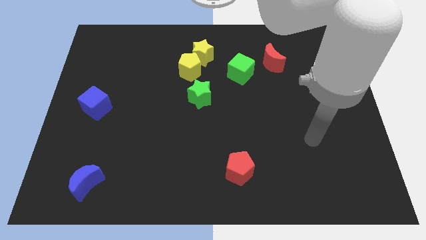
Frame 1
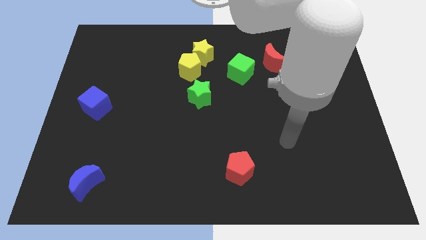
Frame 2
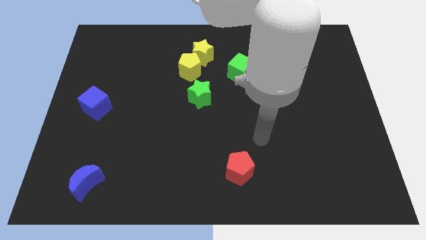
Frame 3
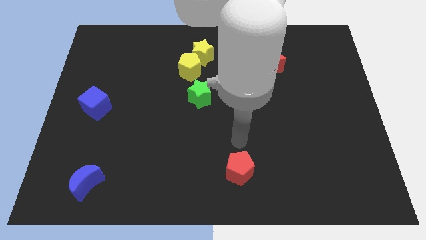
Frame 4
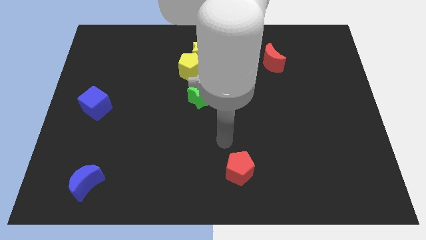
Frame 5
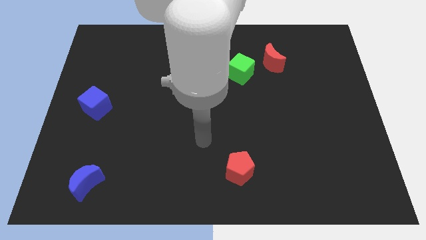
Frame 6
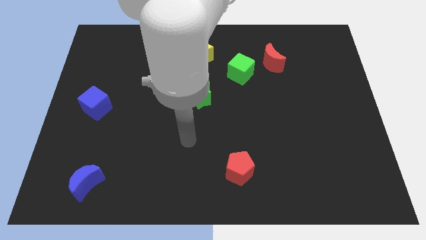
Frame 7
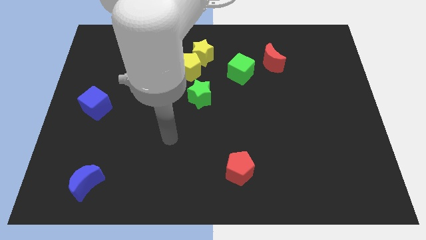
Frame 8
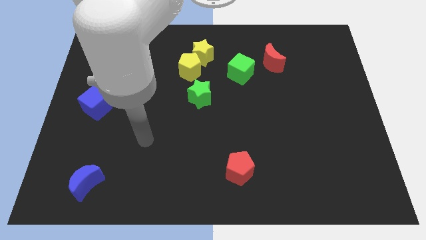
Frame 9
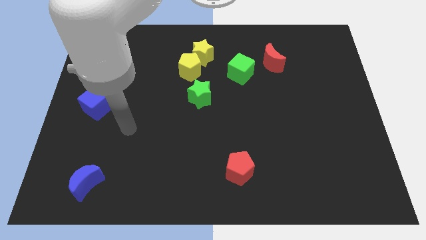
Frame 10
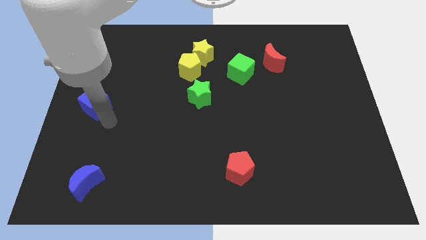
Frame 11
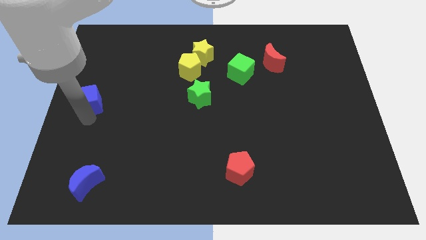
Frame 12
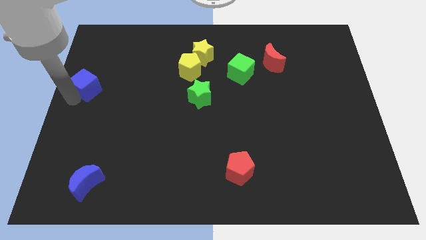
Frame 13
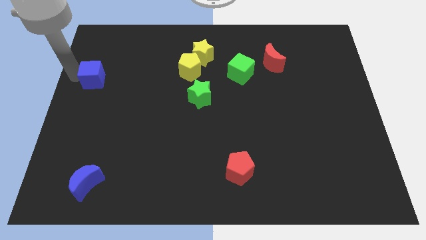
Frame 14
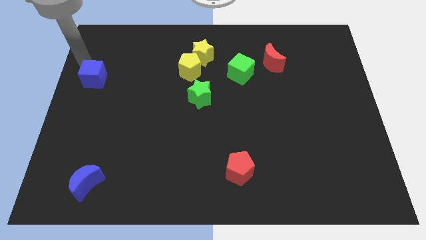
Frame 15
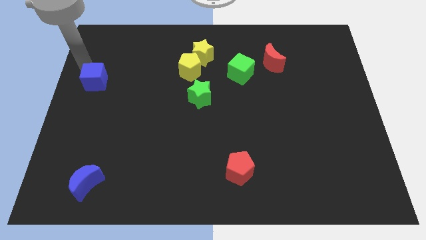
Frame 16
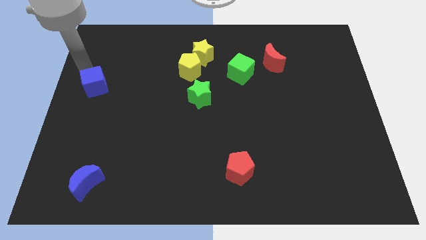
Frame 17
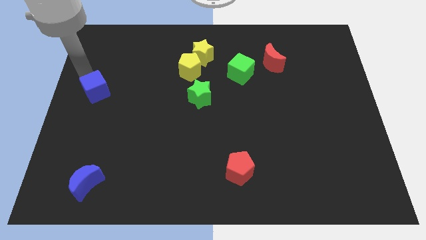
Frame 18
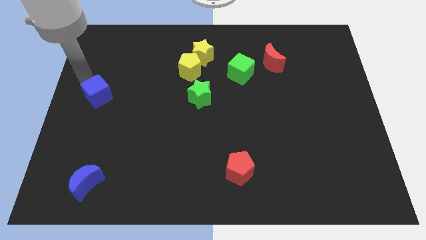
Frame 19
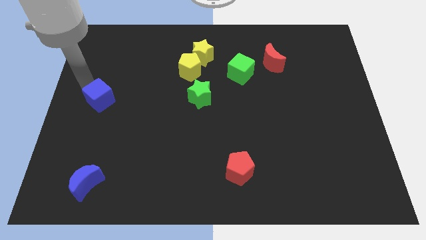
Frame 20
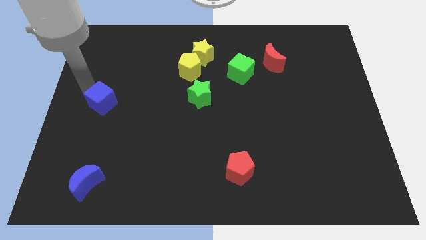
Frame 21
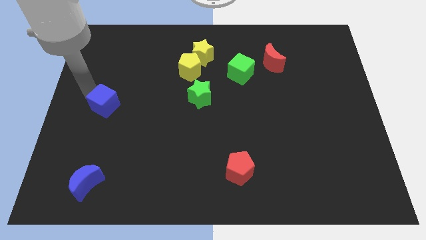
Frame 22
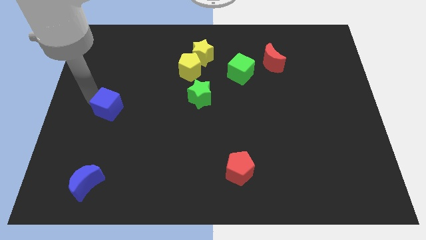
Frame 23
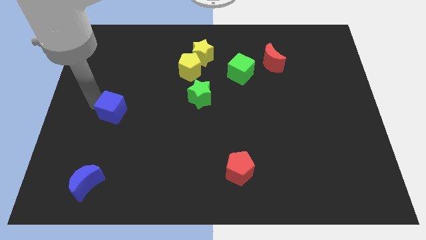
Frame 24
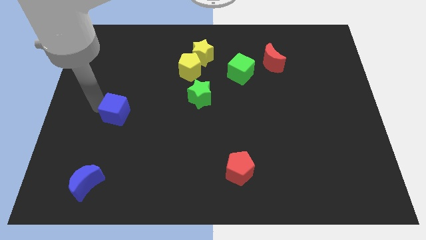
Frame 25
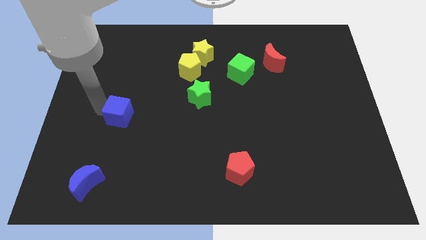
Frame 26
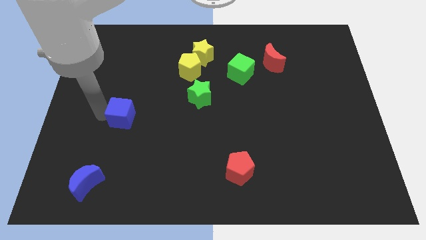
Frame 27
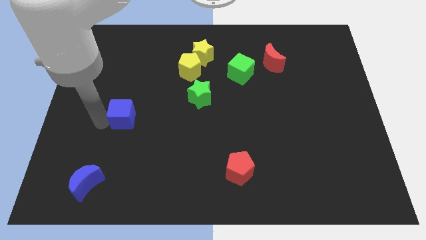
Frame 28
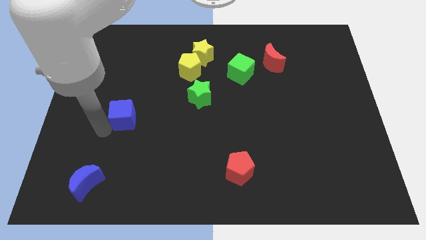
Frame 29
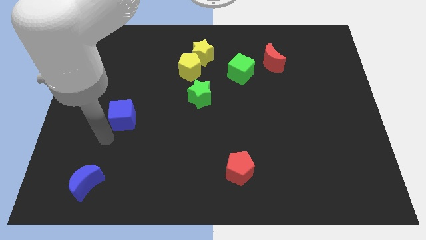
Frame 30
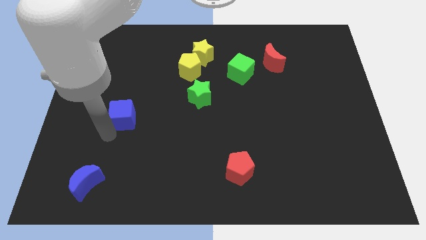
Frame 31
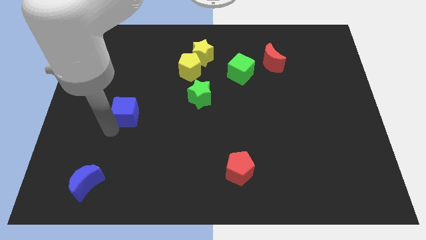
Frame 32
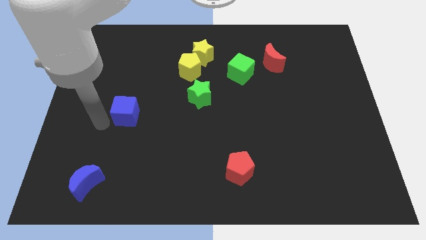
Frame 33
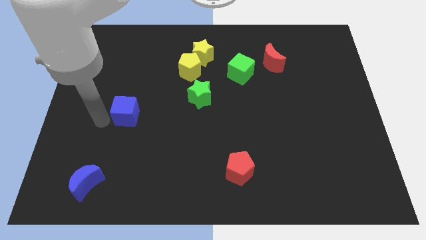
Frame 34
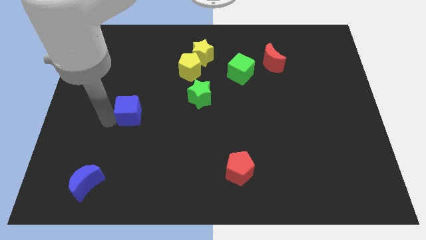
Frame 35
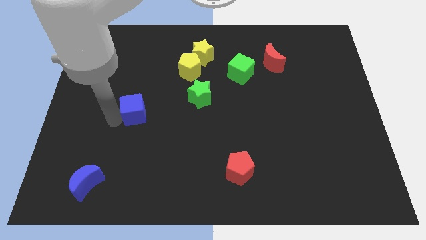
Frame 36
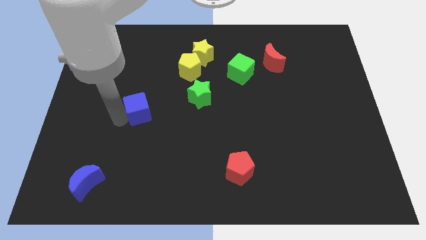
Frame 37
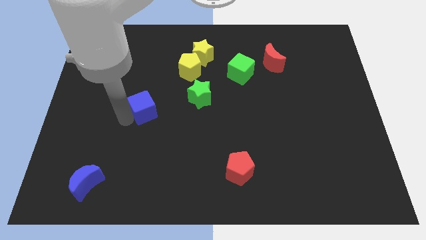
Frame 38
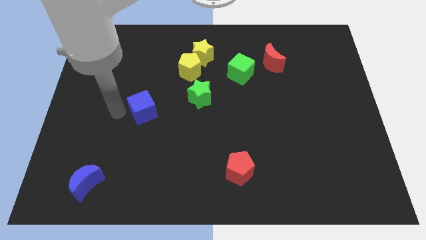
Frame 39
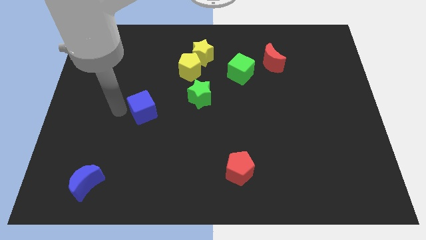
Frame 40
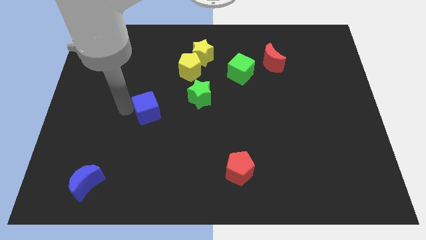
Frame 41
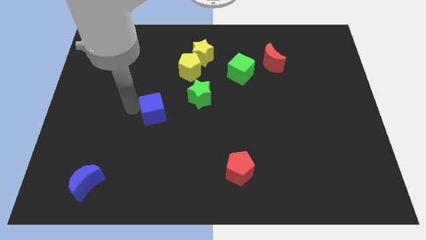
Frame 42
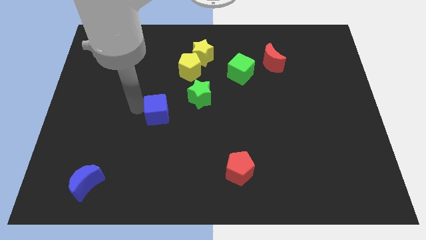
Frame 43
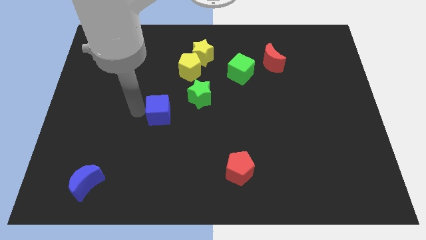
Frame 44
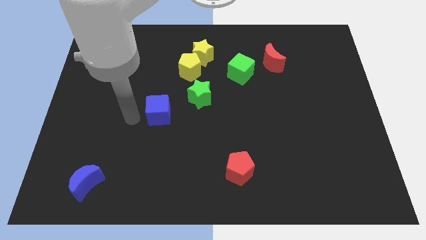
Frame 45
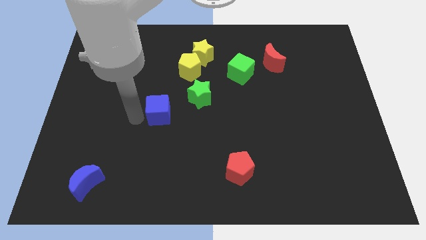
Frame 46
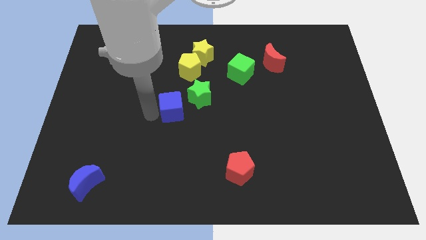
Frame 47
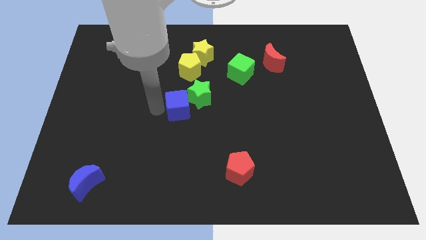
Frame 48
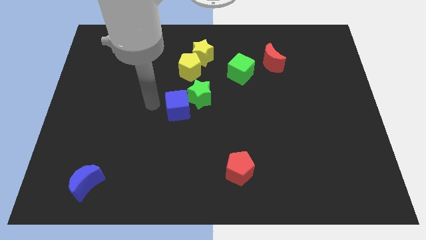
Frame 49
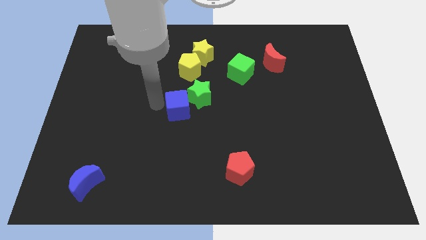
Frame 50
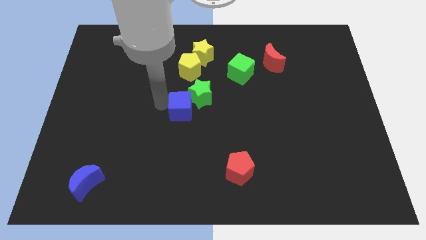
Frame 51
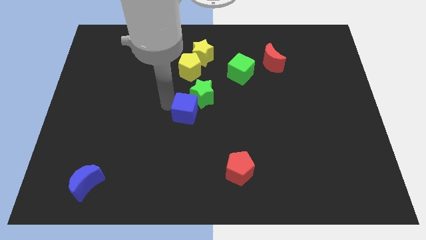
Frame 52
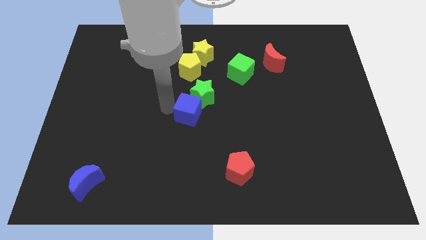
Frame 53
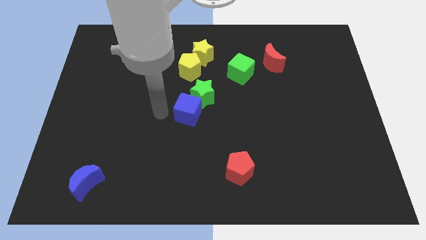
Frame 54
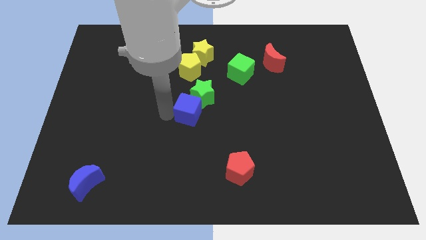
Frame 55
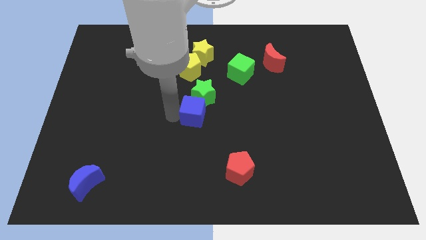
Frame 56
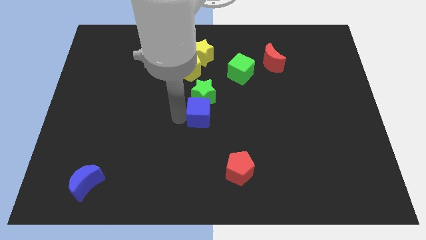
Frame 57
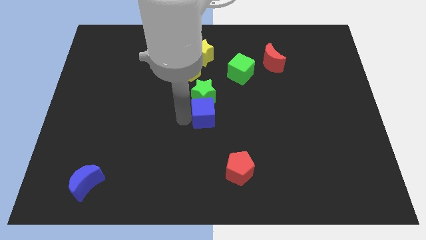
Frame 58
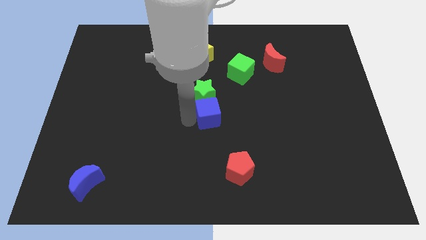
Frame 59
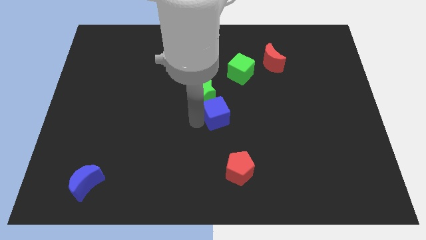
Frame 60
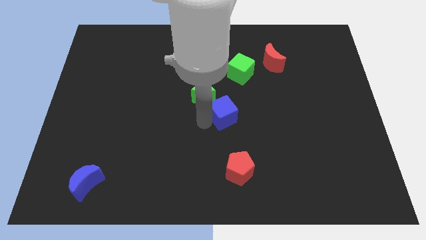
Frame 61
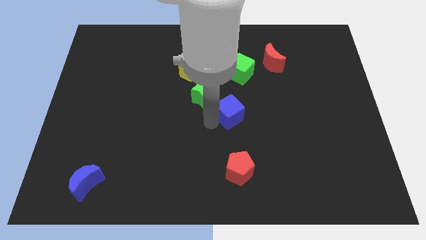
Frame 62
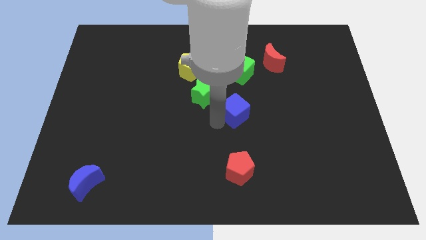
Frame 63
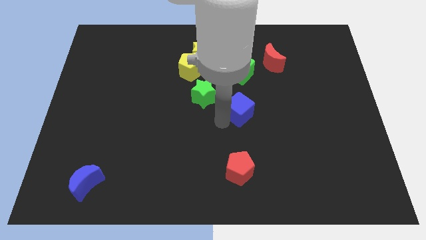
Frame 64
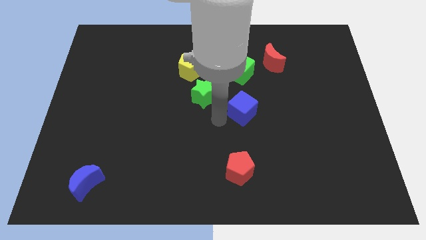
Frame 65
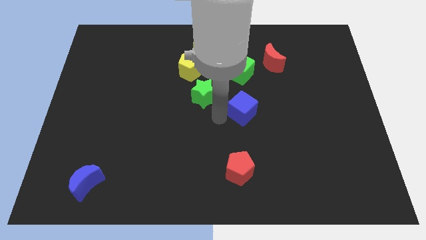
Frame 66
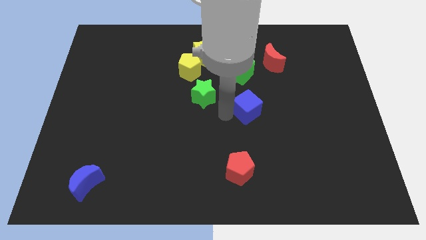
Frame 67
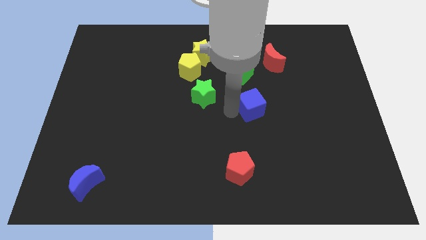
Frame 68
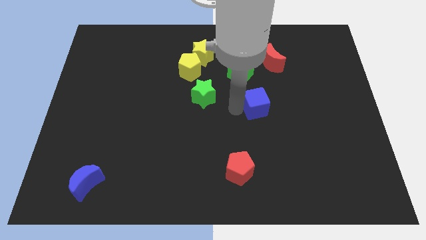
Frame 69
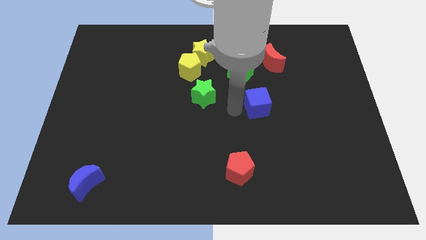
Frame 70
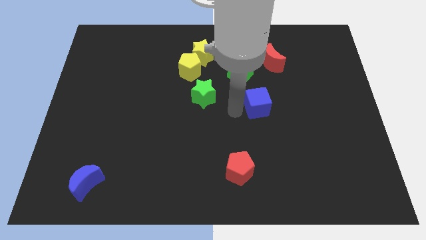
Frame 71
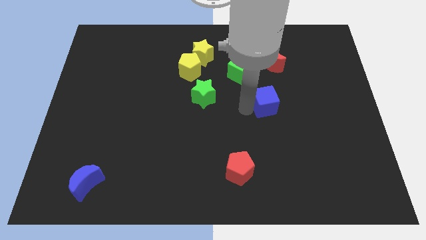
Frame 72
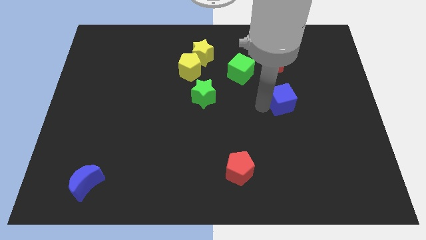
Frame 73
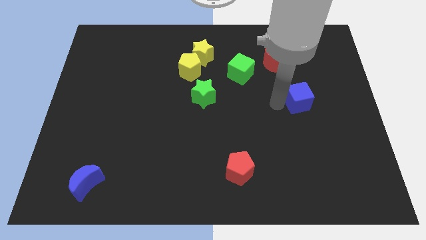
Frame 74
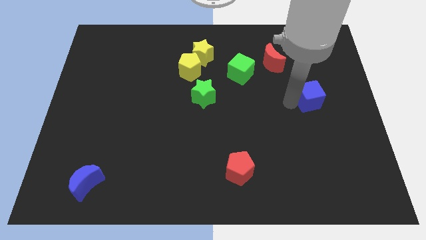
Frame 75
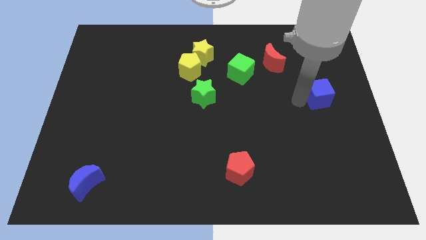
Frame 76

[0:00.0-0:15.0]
slide the blue cube to the right side

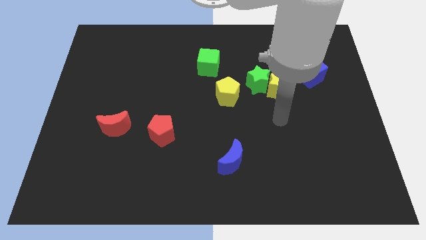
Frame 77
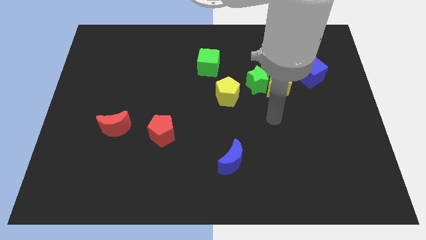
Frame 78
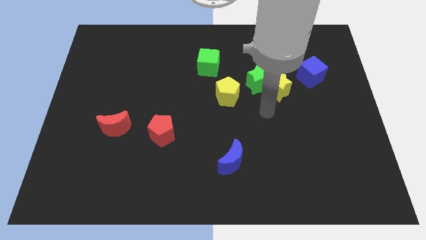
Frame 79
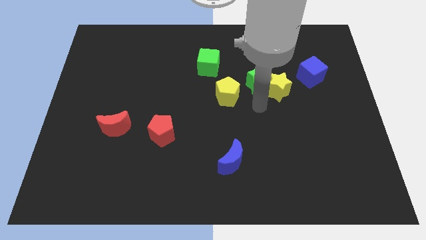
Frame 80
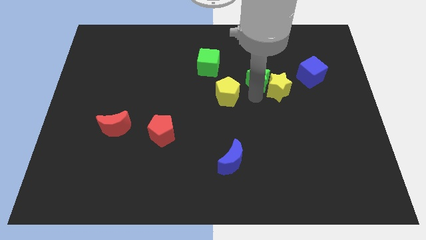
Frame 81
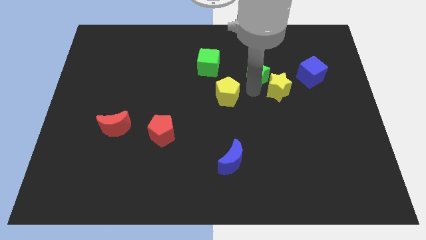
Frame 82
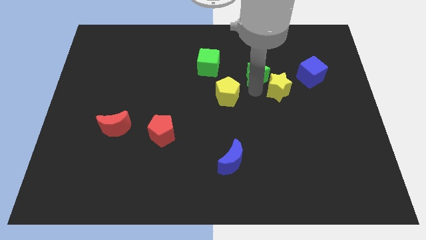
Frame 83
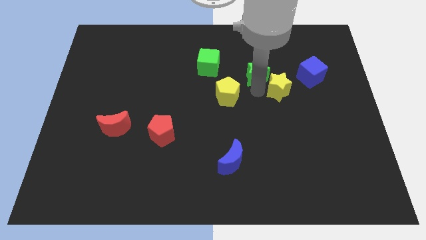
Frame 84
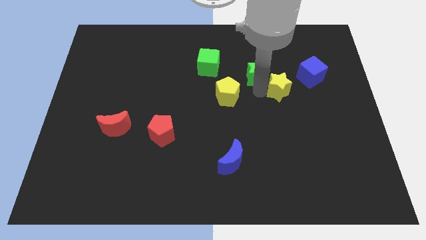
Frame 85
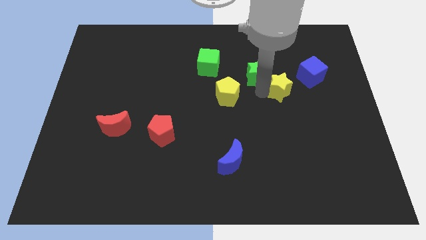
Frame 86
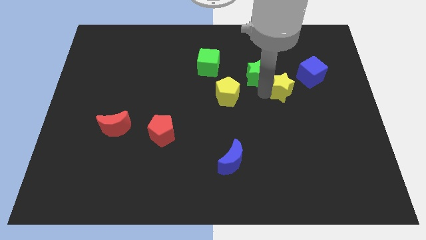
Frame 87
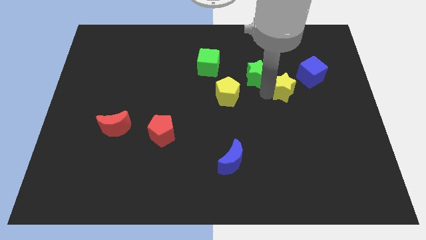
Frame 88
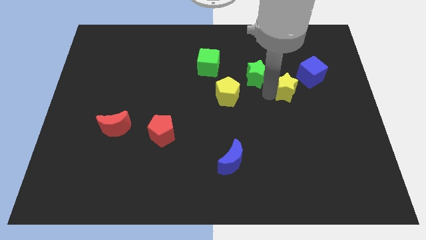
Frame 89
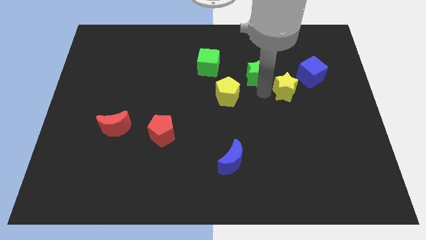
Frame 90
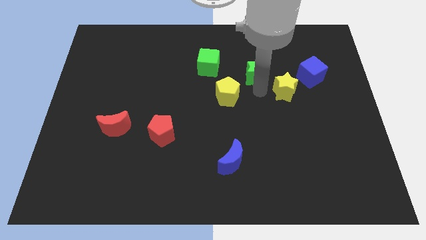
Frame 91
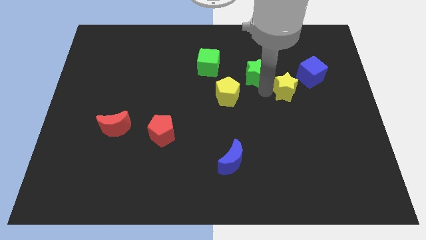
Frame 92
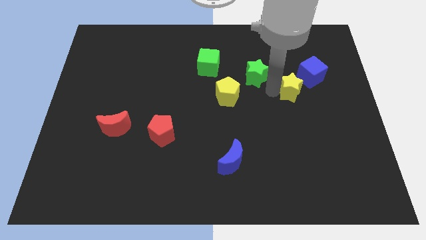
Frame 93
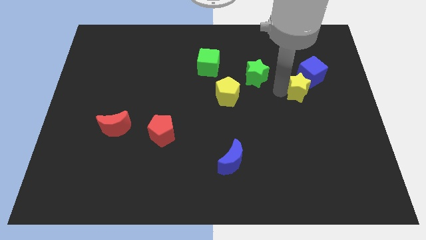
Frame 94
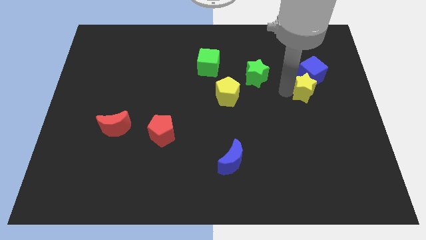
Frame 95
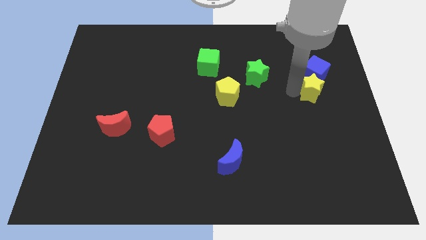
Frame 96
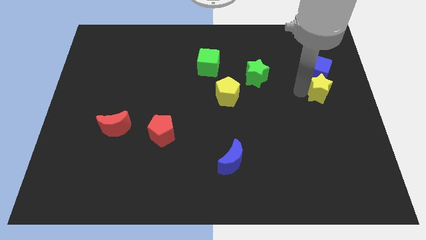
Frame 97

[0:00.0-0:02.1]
push the yellow star to the right side of the board
